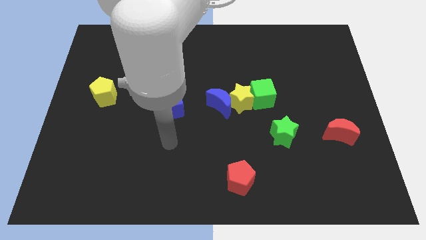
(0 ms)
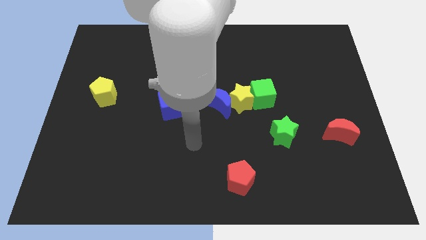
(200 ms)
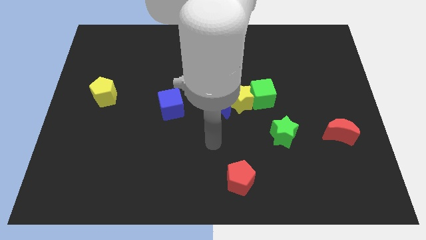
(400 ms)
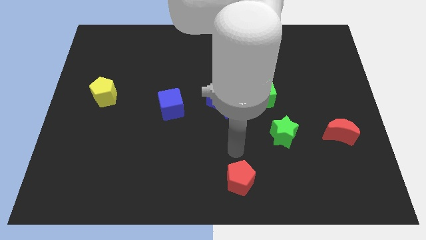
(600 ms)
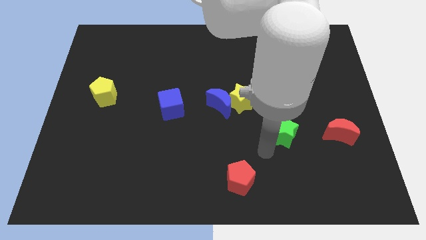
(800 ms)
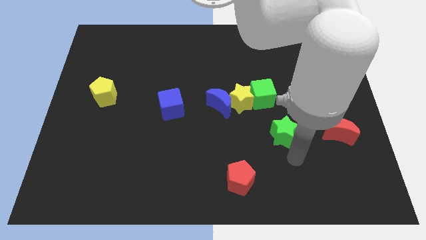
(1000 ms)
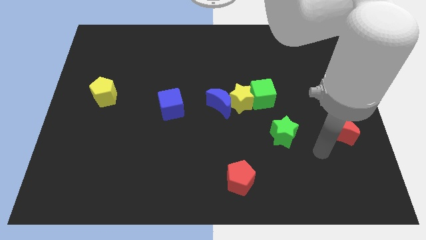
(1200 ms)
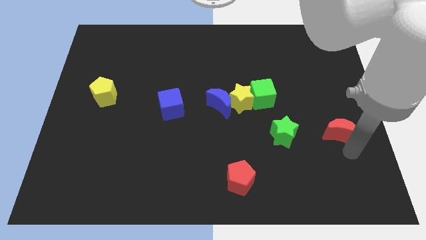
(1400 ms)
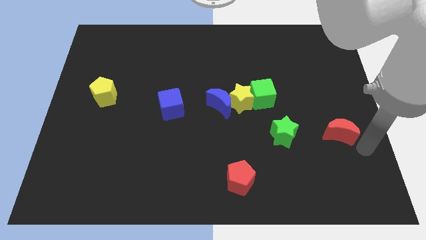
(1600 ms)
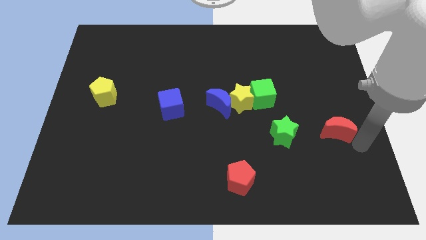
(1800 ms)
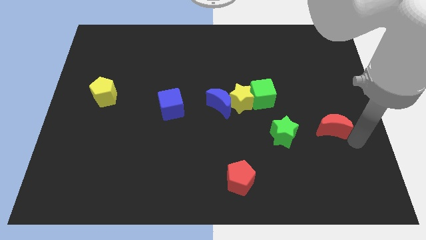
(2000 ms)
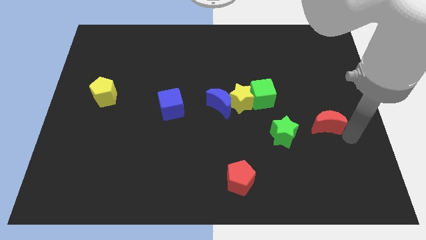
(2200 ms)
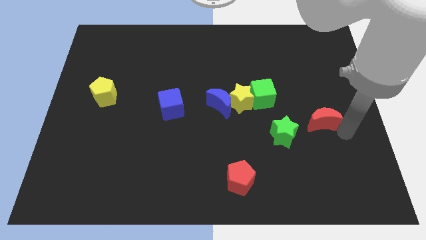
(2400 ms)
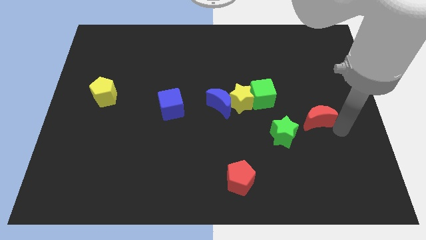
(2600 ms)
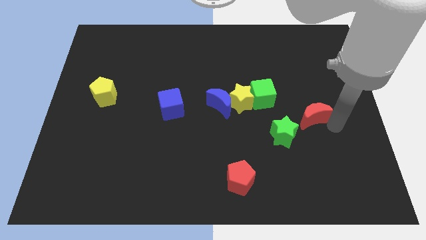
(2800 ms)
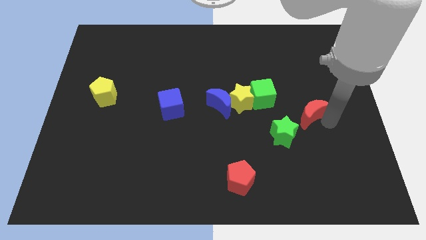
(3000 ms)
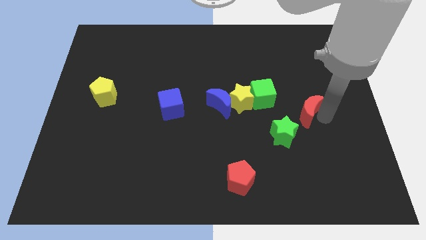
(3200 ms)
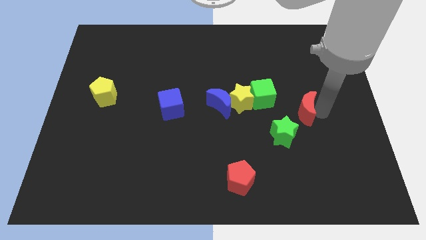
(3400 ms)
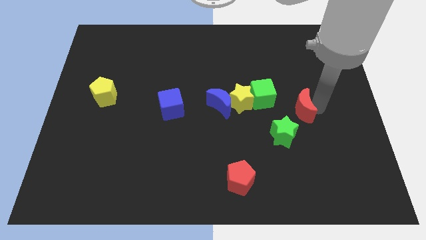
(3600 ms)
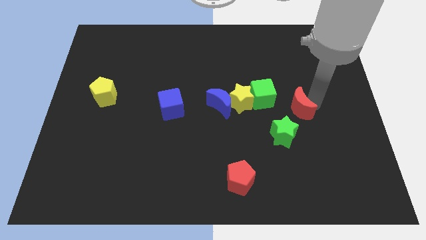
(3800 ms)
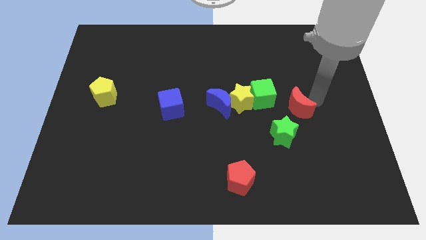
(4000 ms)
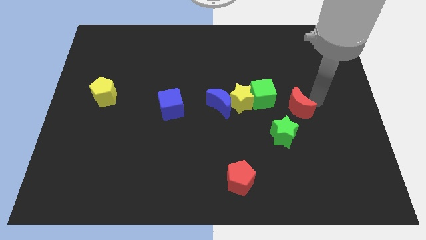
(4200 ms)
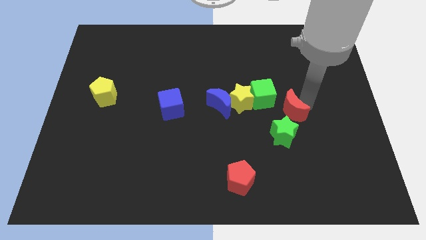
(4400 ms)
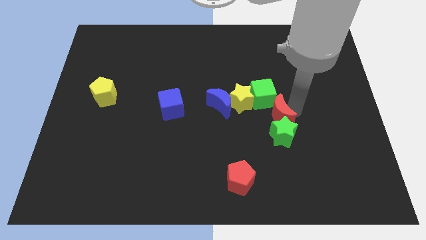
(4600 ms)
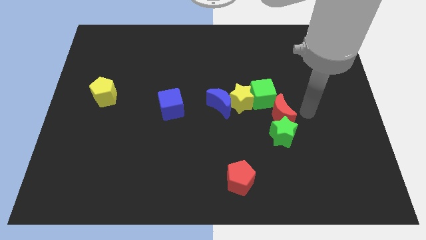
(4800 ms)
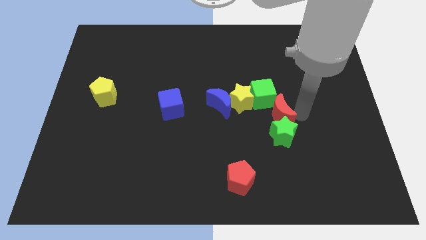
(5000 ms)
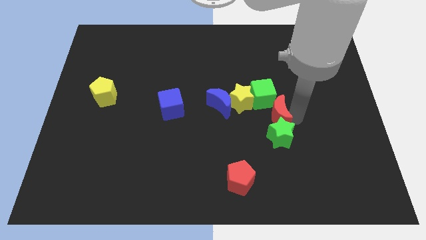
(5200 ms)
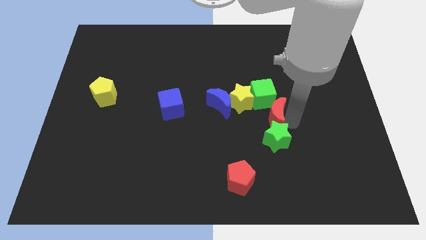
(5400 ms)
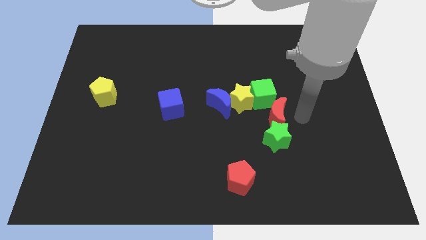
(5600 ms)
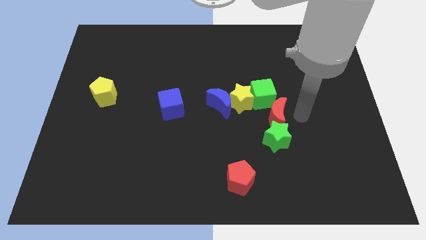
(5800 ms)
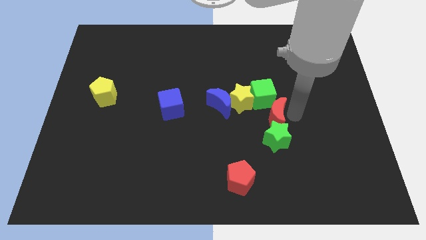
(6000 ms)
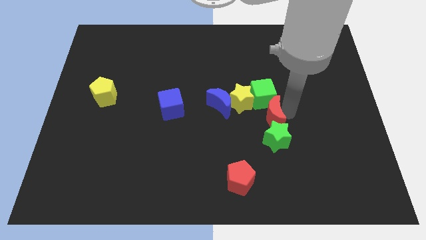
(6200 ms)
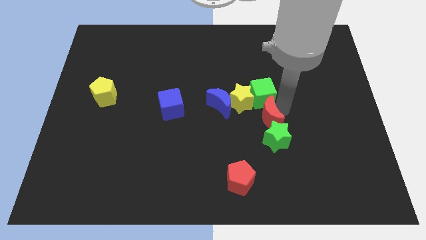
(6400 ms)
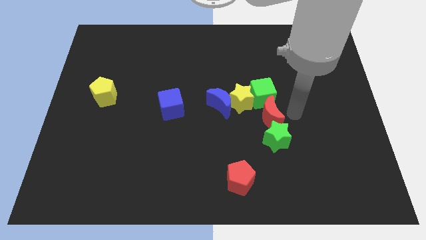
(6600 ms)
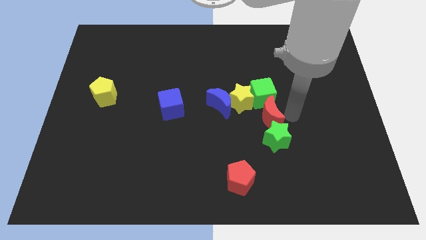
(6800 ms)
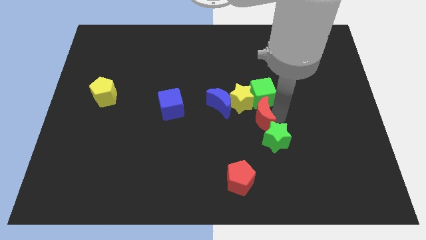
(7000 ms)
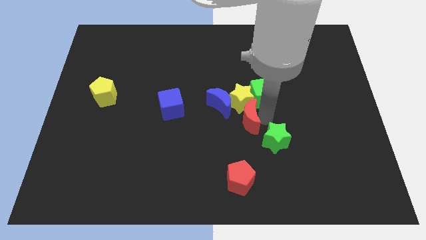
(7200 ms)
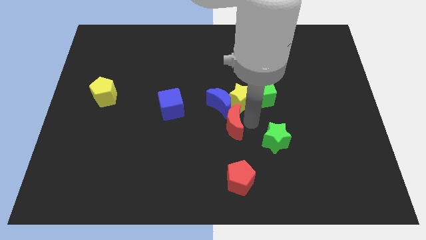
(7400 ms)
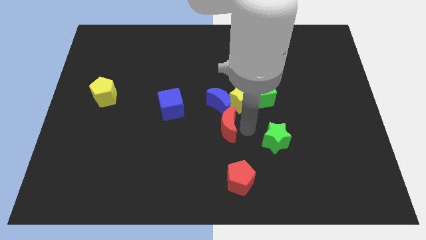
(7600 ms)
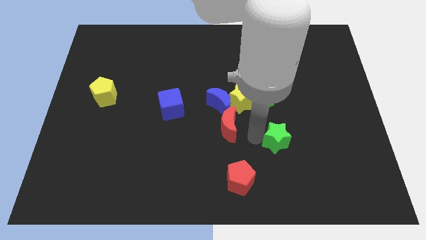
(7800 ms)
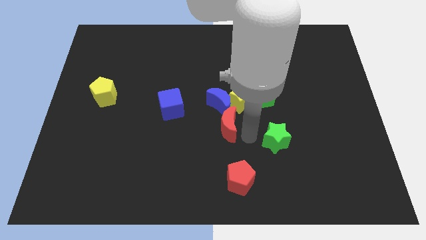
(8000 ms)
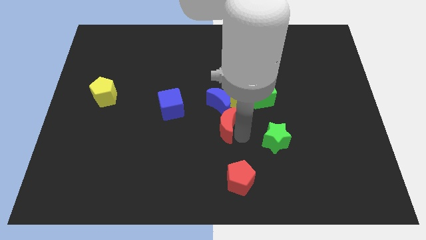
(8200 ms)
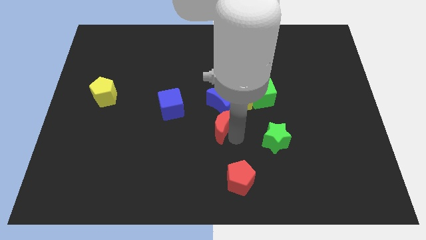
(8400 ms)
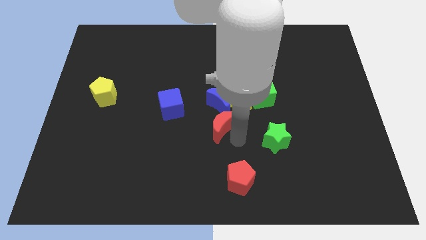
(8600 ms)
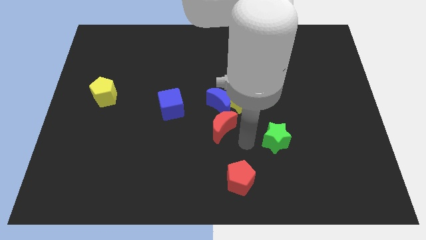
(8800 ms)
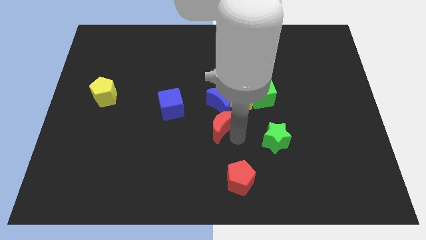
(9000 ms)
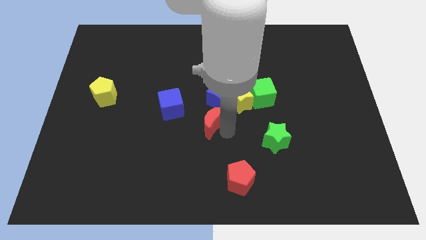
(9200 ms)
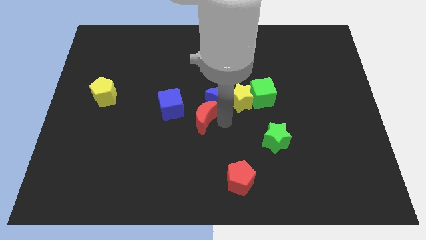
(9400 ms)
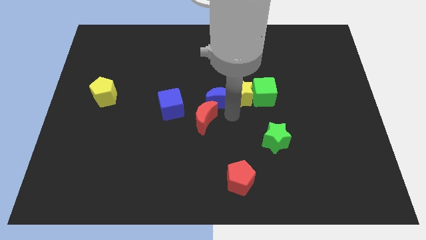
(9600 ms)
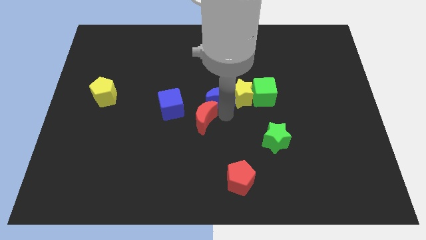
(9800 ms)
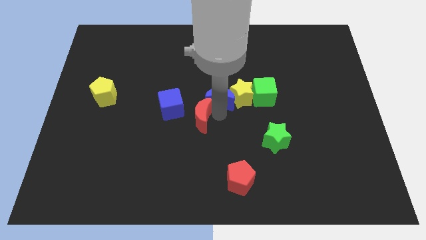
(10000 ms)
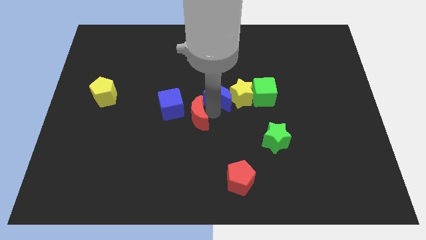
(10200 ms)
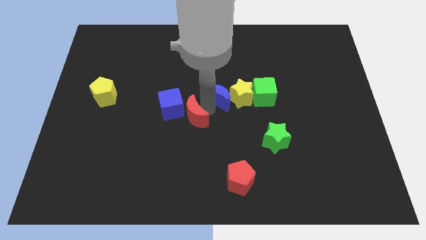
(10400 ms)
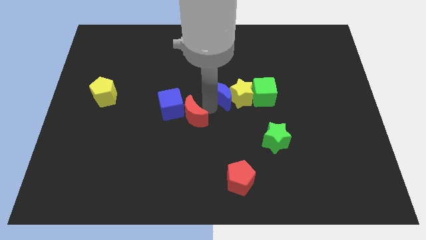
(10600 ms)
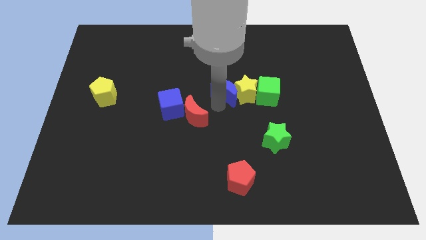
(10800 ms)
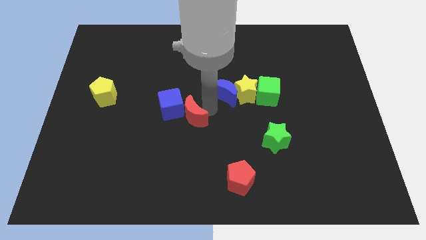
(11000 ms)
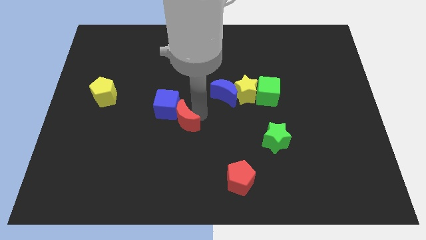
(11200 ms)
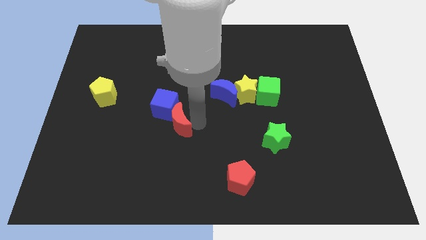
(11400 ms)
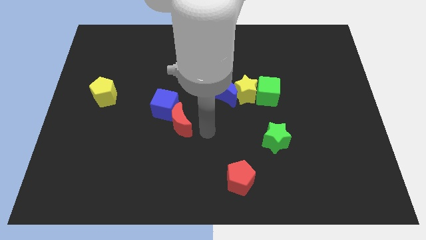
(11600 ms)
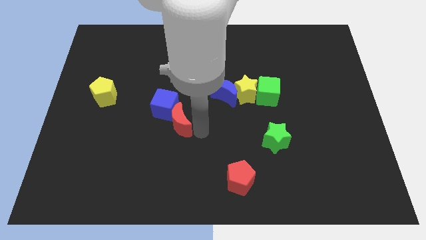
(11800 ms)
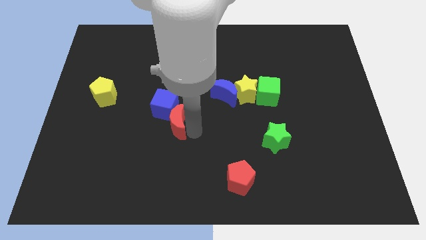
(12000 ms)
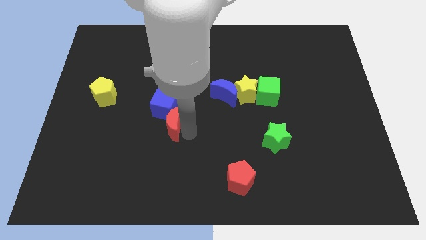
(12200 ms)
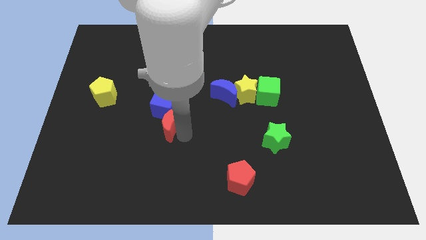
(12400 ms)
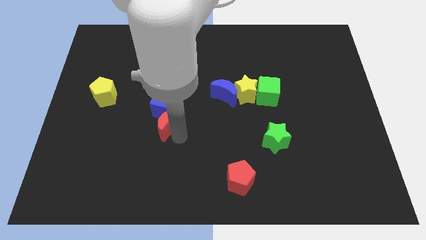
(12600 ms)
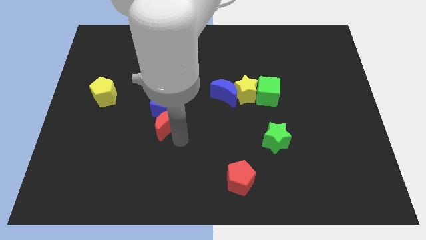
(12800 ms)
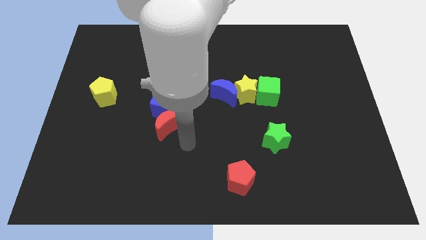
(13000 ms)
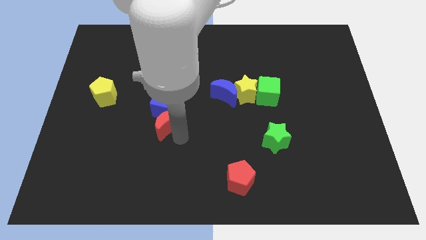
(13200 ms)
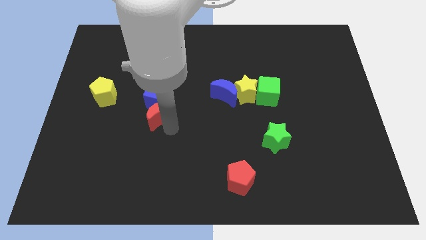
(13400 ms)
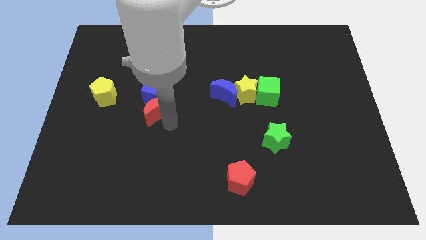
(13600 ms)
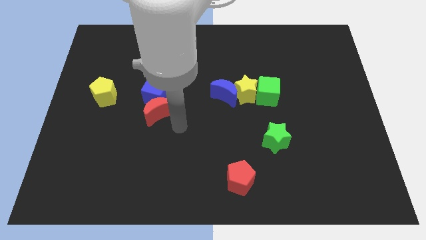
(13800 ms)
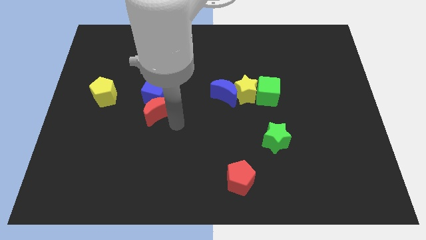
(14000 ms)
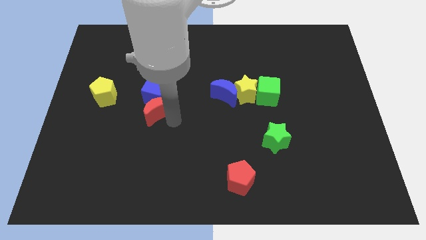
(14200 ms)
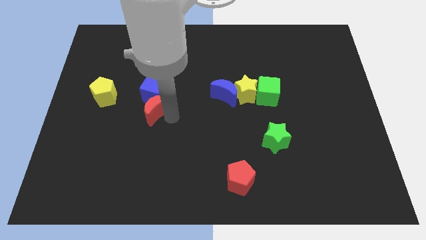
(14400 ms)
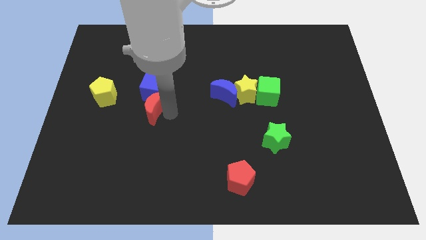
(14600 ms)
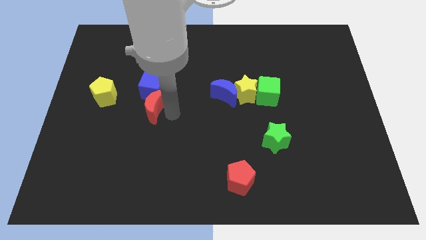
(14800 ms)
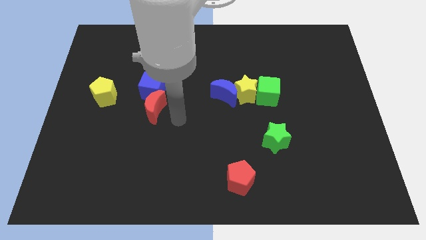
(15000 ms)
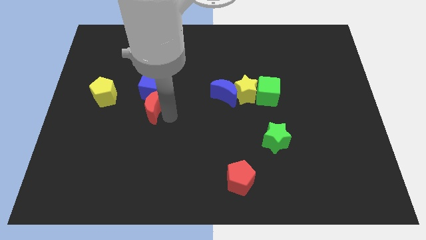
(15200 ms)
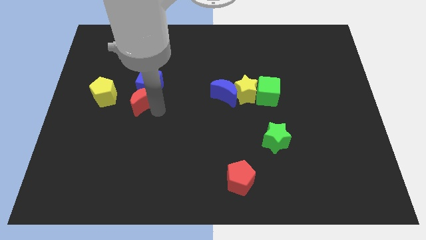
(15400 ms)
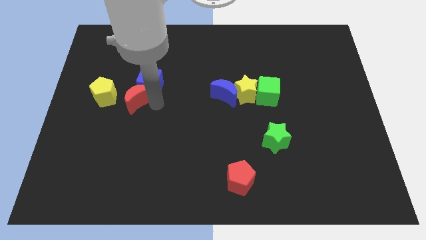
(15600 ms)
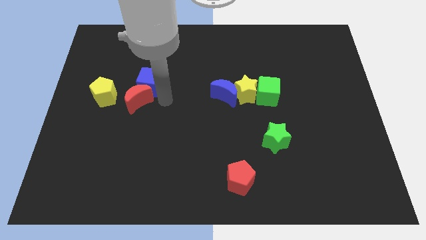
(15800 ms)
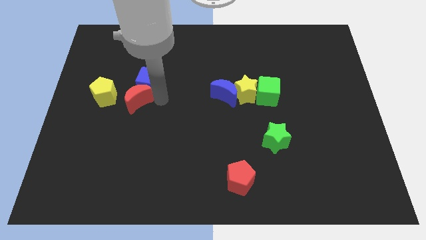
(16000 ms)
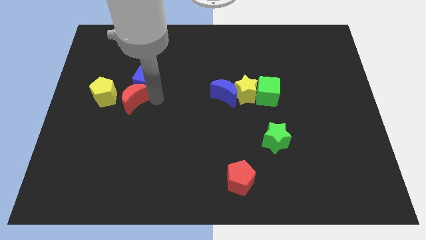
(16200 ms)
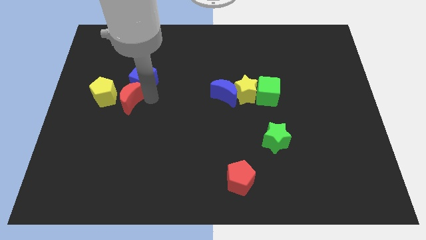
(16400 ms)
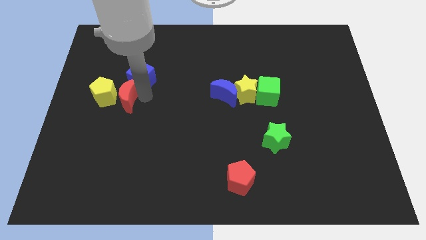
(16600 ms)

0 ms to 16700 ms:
move the red moon next to the yellow pentagon
